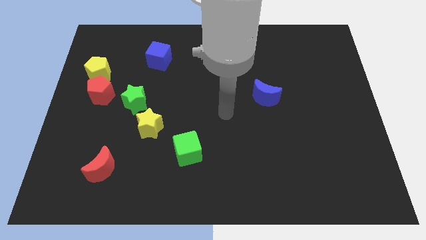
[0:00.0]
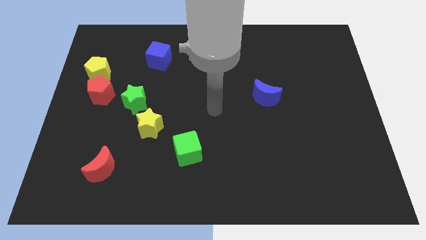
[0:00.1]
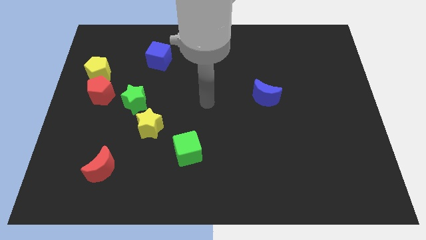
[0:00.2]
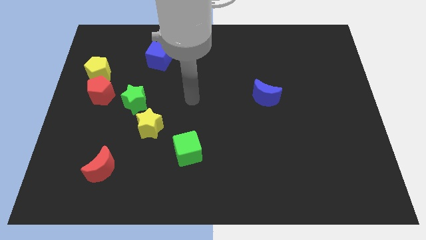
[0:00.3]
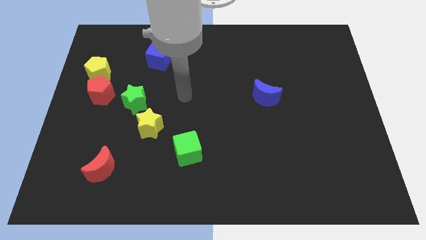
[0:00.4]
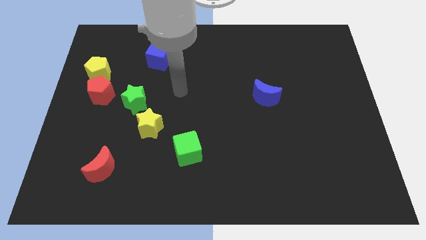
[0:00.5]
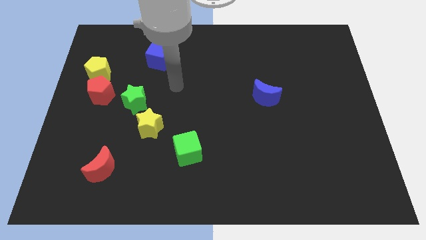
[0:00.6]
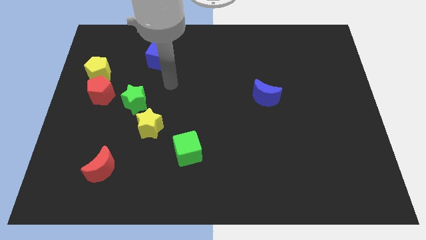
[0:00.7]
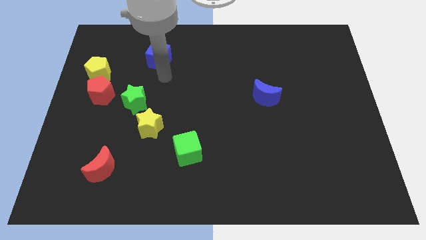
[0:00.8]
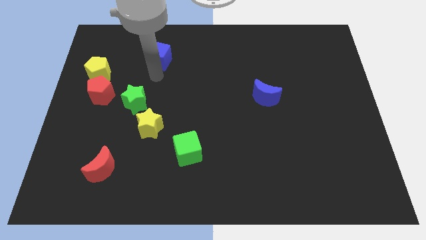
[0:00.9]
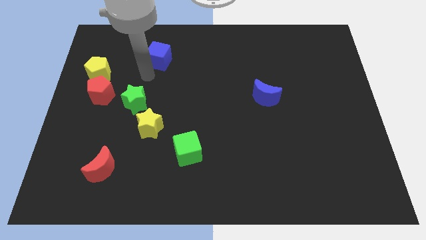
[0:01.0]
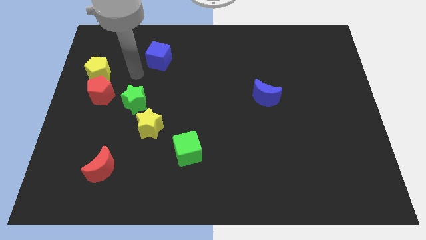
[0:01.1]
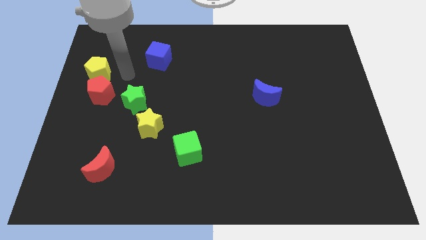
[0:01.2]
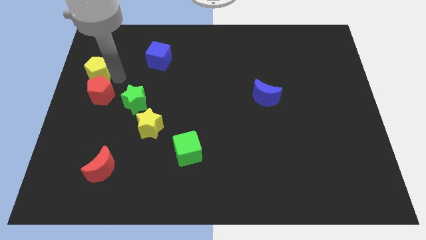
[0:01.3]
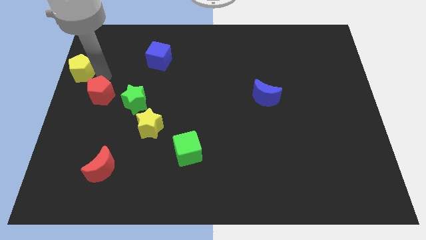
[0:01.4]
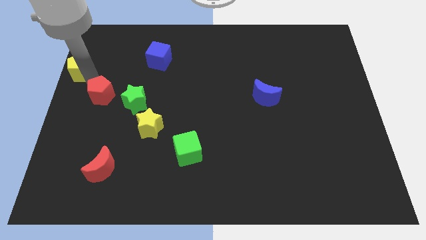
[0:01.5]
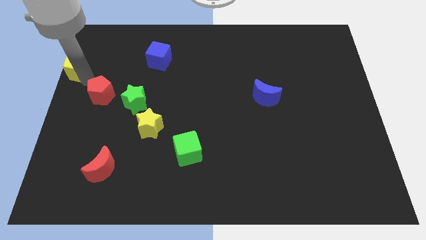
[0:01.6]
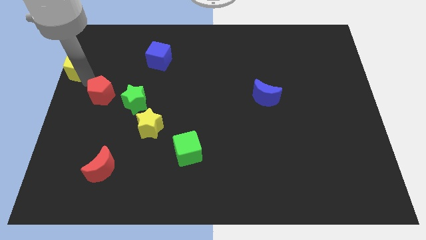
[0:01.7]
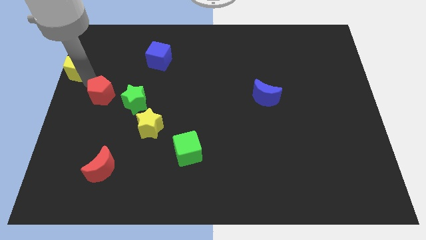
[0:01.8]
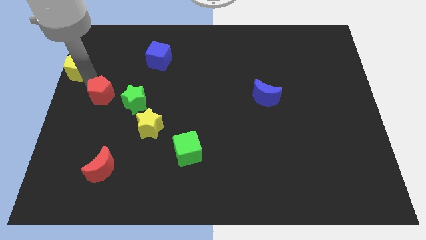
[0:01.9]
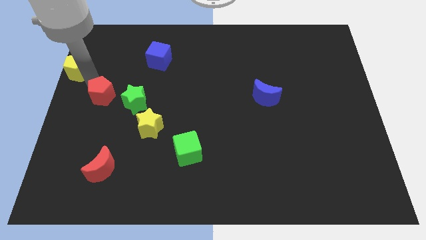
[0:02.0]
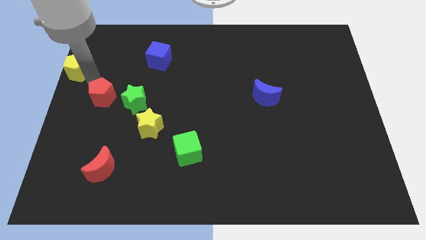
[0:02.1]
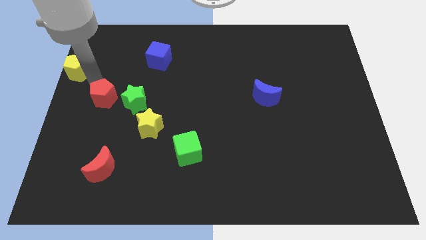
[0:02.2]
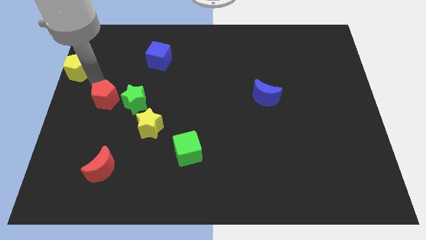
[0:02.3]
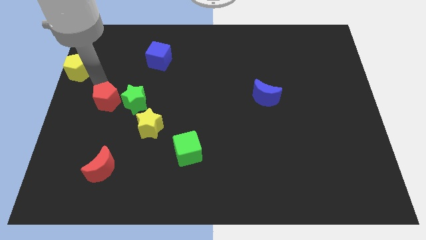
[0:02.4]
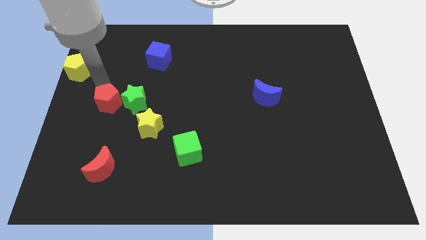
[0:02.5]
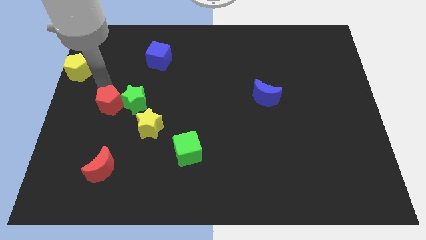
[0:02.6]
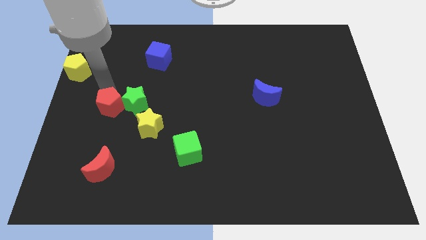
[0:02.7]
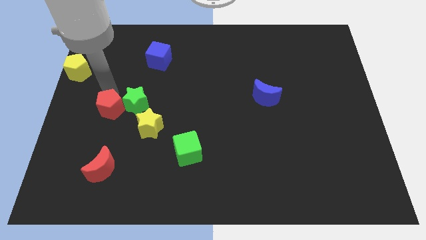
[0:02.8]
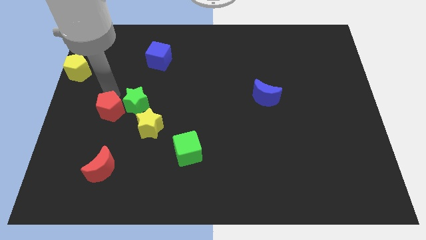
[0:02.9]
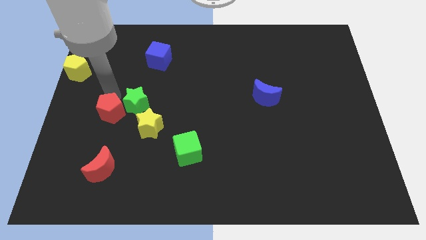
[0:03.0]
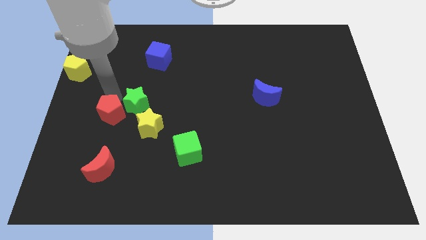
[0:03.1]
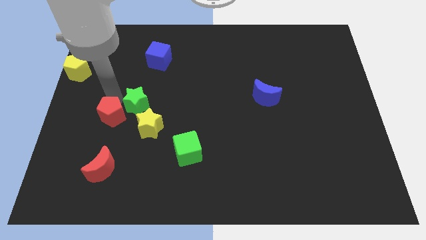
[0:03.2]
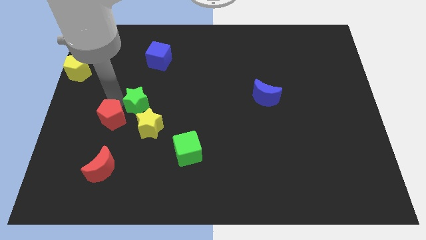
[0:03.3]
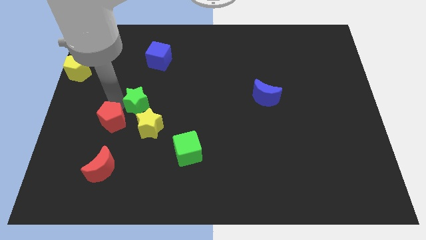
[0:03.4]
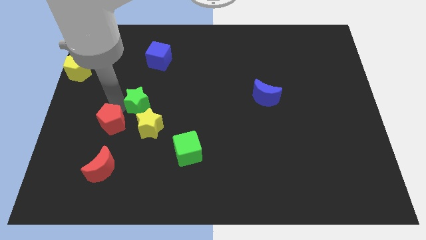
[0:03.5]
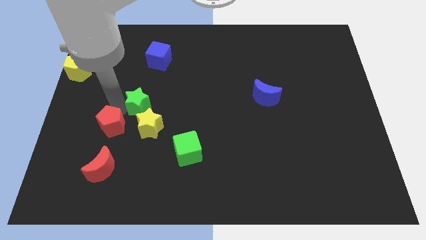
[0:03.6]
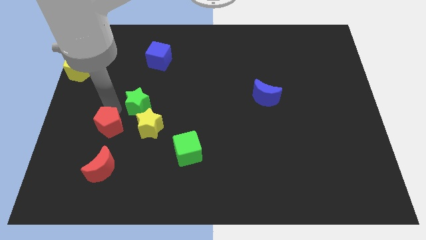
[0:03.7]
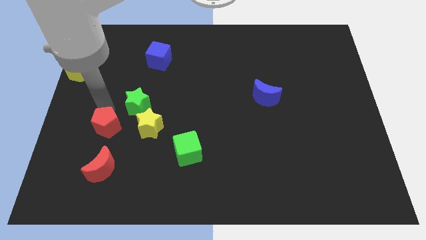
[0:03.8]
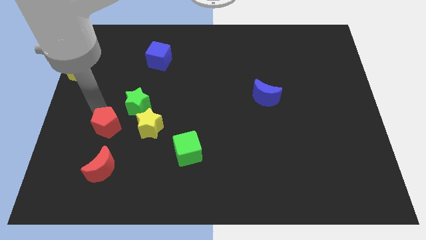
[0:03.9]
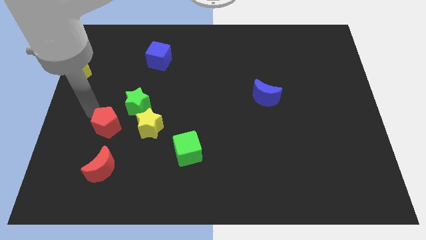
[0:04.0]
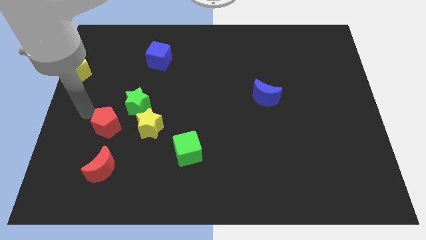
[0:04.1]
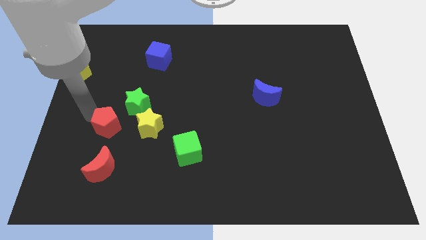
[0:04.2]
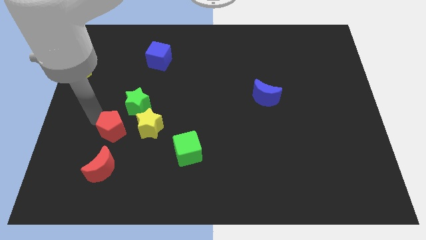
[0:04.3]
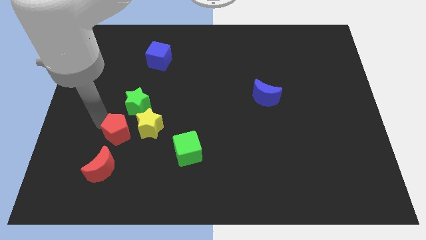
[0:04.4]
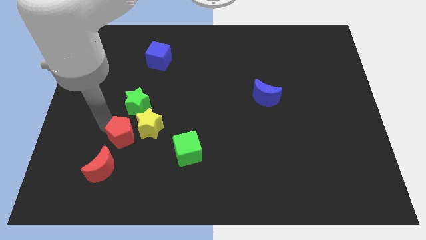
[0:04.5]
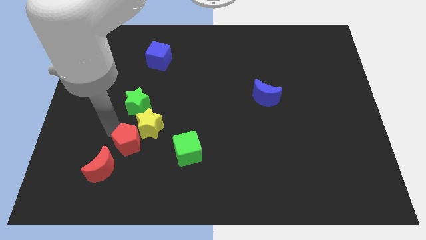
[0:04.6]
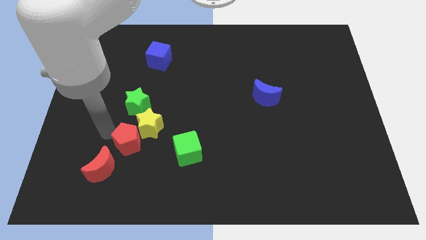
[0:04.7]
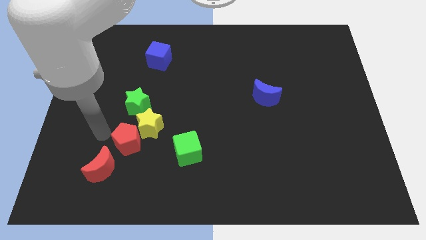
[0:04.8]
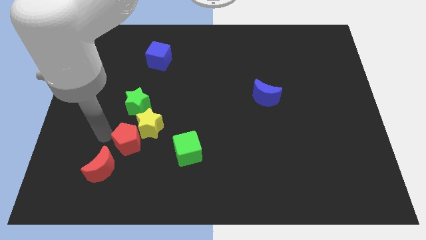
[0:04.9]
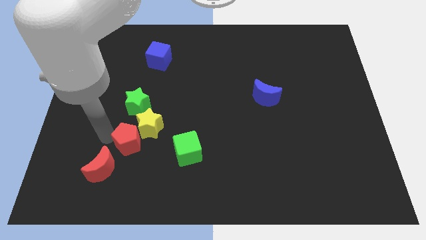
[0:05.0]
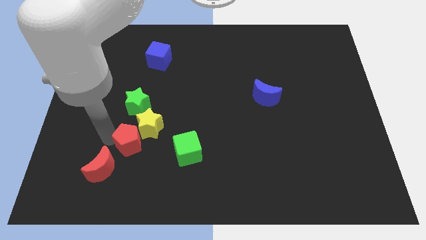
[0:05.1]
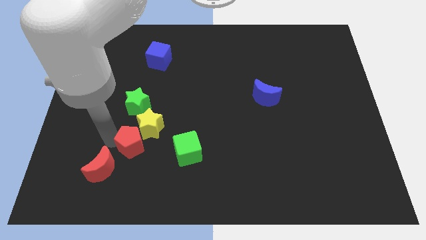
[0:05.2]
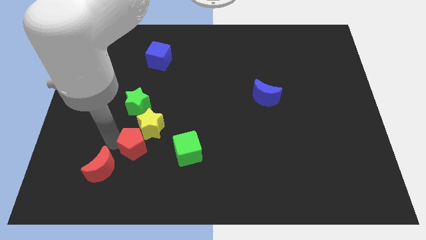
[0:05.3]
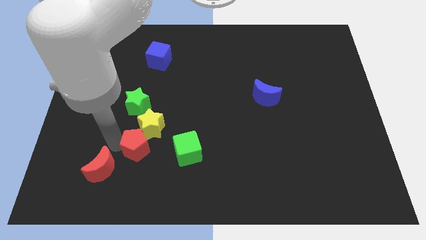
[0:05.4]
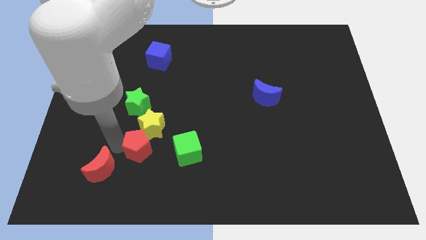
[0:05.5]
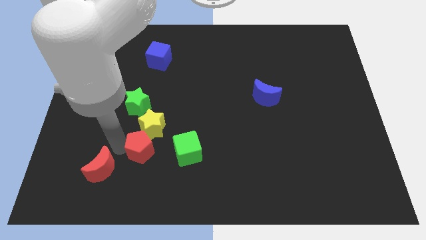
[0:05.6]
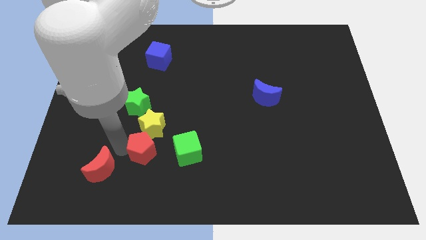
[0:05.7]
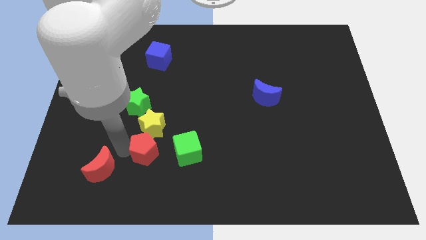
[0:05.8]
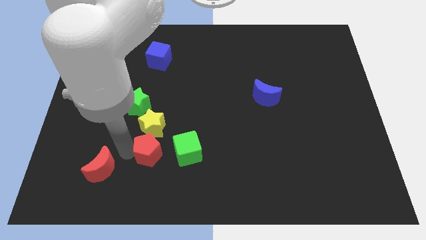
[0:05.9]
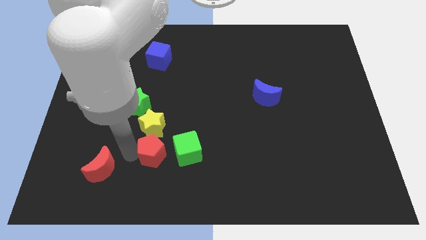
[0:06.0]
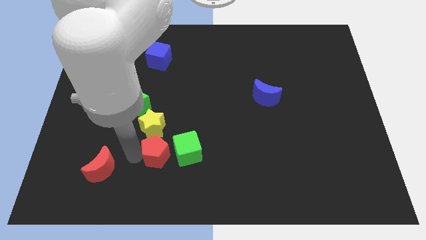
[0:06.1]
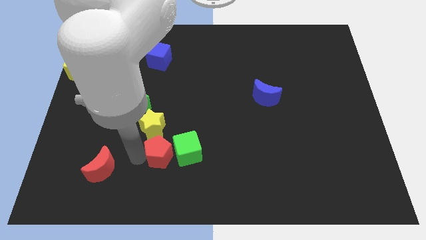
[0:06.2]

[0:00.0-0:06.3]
move the red pentagon close to the green cube

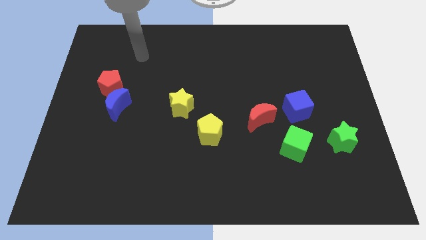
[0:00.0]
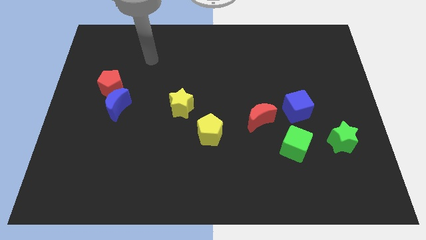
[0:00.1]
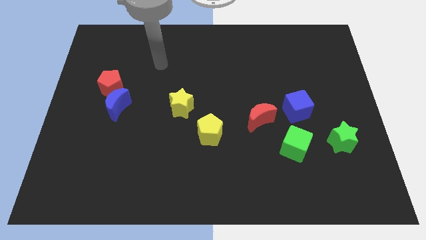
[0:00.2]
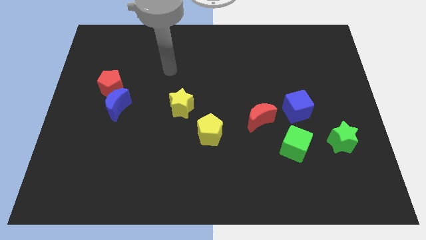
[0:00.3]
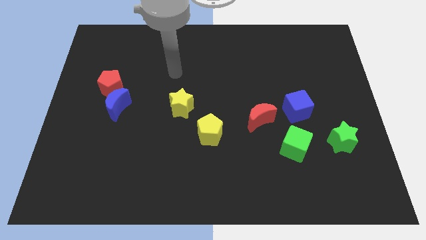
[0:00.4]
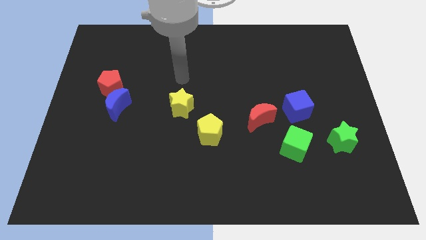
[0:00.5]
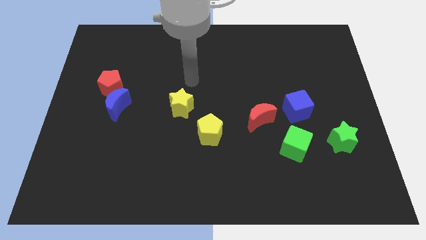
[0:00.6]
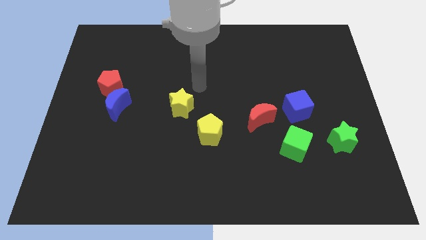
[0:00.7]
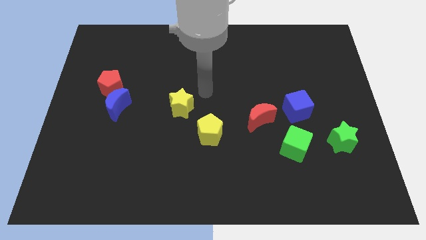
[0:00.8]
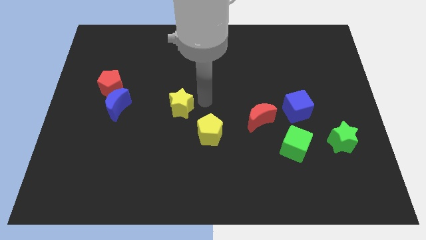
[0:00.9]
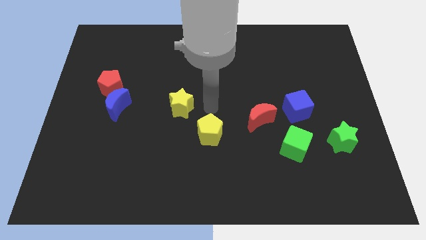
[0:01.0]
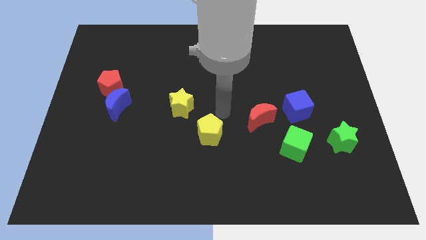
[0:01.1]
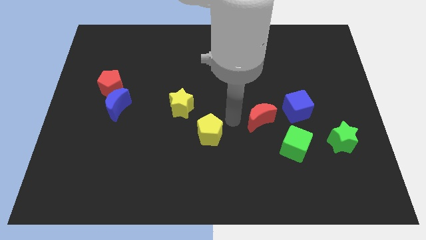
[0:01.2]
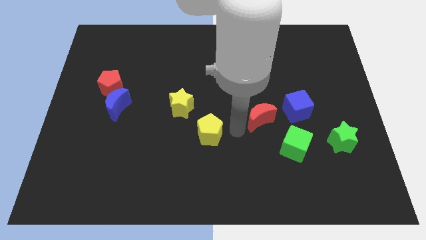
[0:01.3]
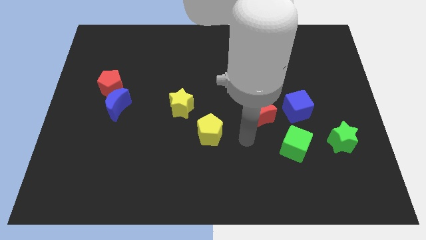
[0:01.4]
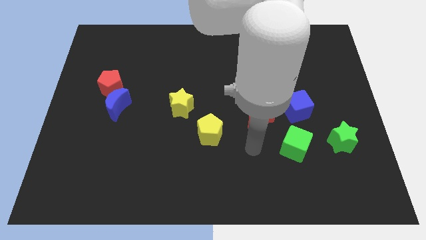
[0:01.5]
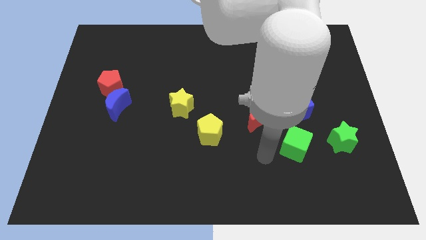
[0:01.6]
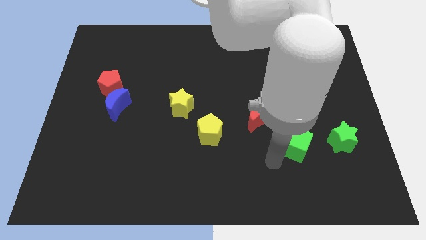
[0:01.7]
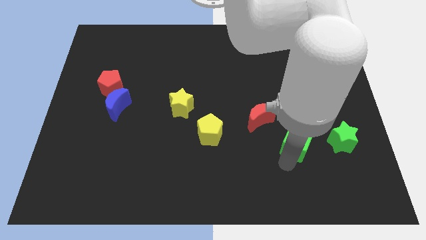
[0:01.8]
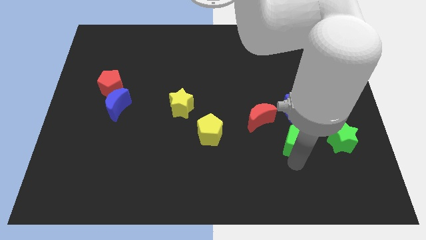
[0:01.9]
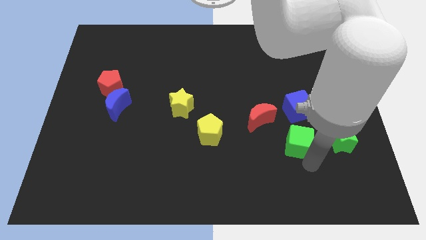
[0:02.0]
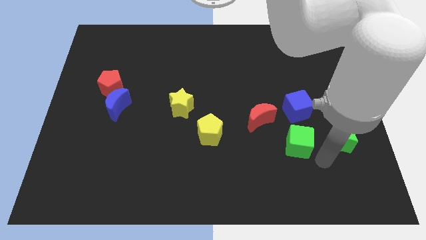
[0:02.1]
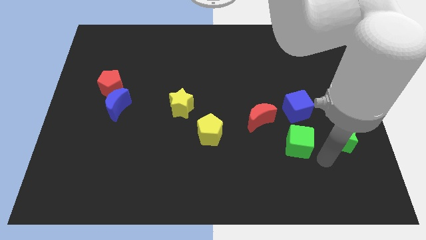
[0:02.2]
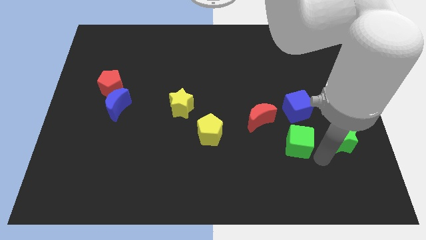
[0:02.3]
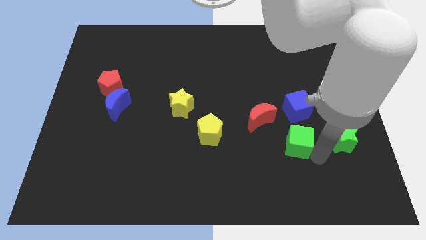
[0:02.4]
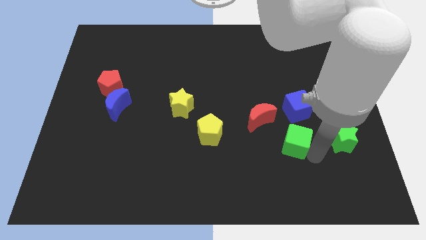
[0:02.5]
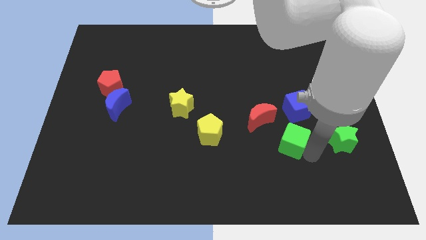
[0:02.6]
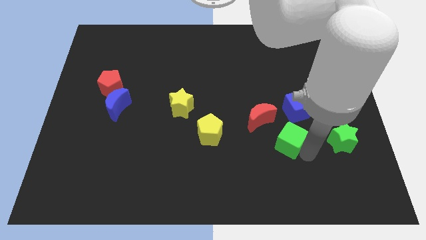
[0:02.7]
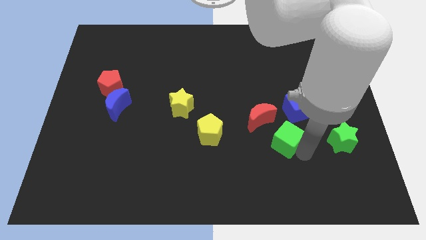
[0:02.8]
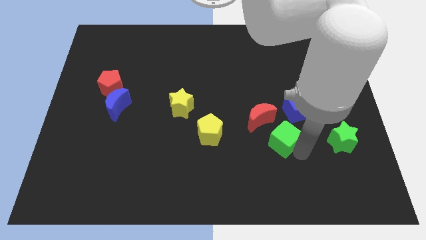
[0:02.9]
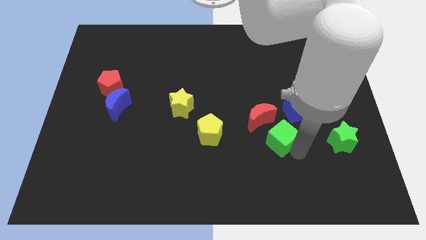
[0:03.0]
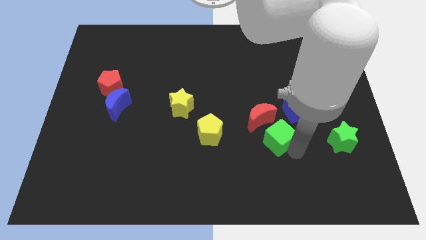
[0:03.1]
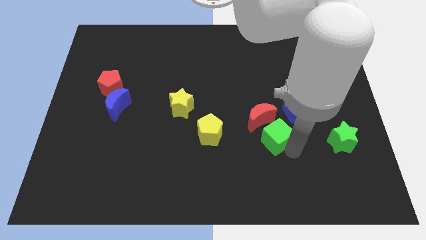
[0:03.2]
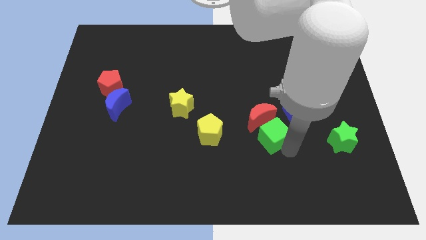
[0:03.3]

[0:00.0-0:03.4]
put the green cube to the red moon
